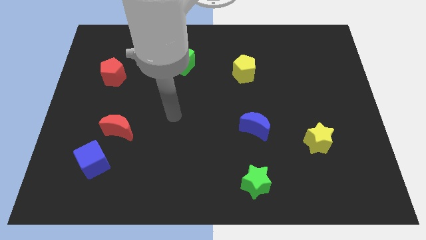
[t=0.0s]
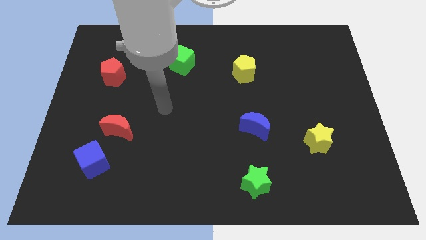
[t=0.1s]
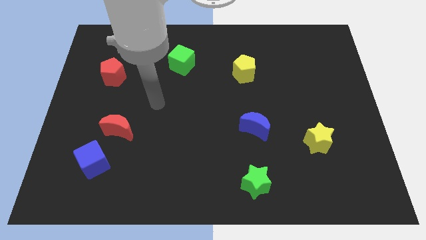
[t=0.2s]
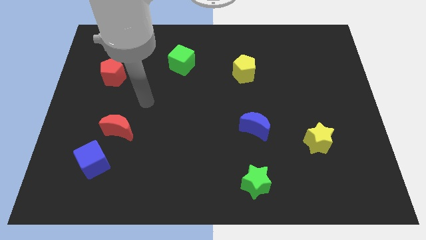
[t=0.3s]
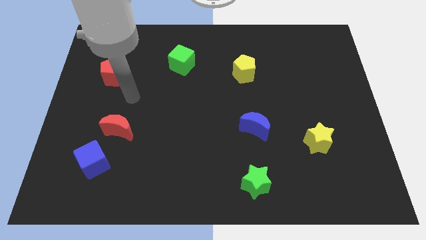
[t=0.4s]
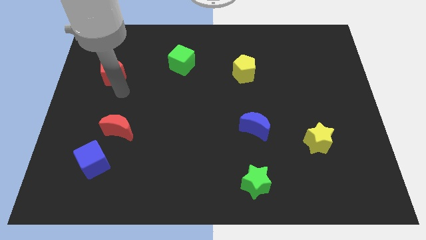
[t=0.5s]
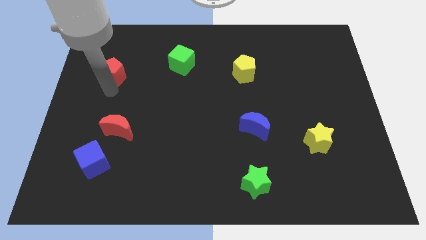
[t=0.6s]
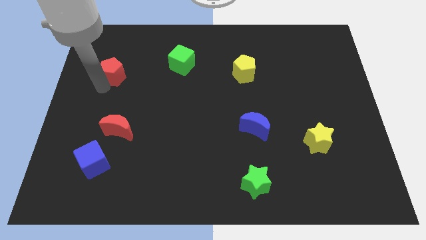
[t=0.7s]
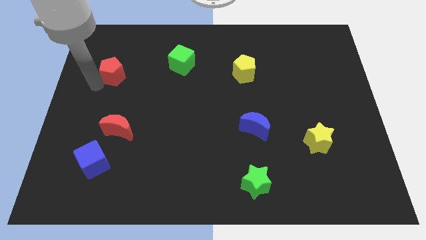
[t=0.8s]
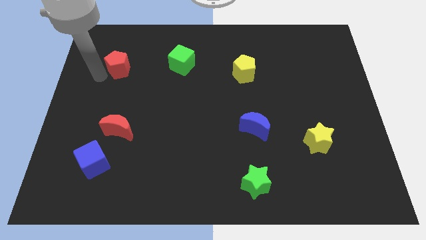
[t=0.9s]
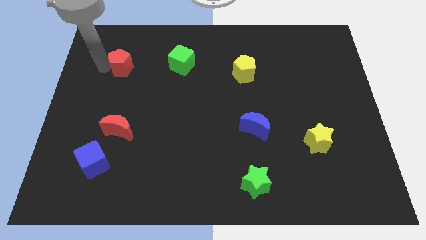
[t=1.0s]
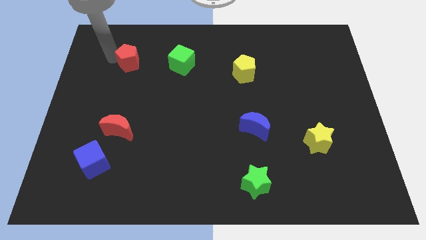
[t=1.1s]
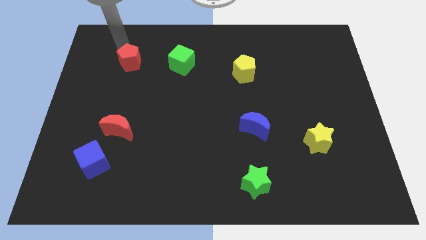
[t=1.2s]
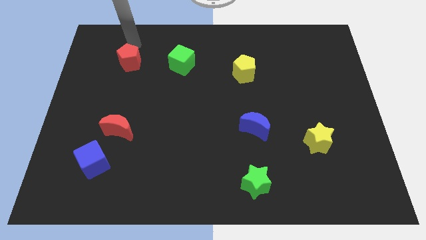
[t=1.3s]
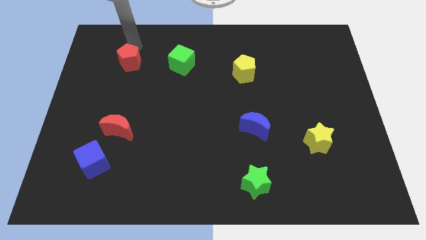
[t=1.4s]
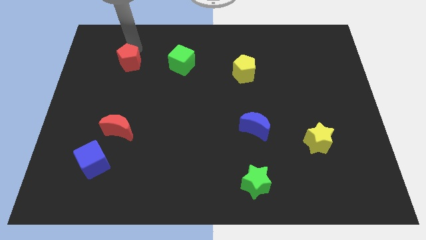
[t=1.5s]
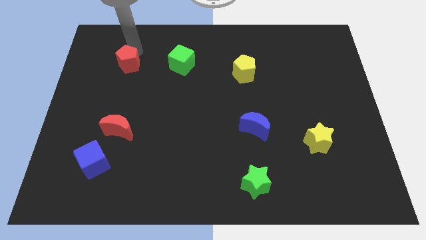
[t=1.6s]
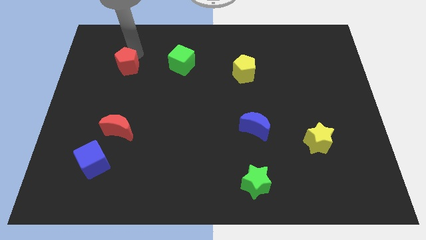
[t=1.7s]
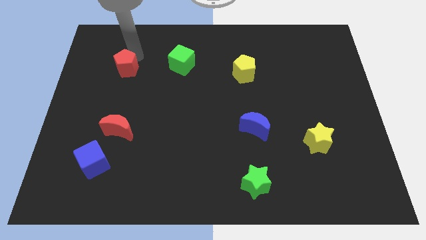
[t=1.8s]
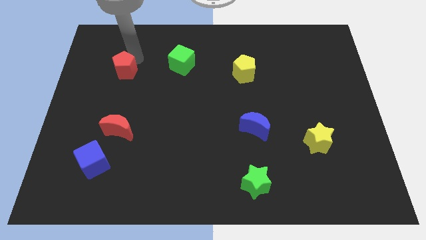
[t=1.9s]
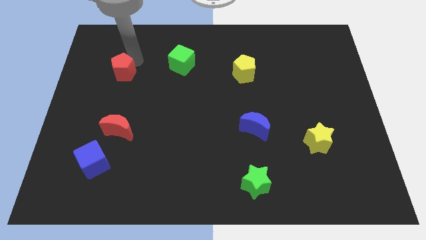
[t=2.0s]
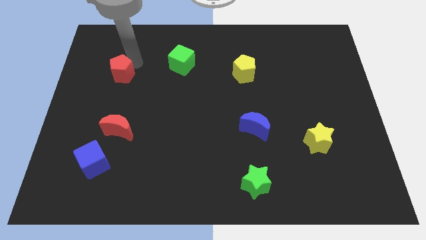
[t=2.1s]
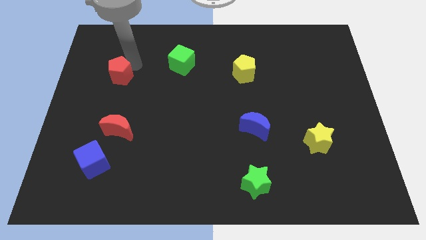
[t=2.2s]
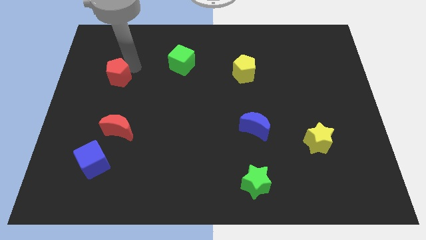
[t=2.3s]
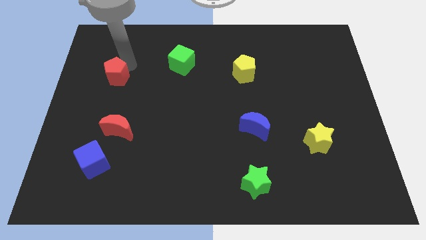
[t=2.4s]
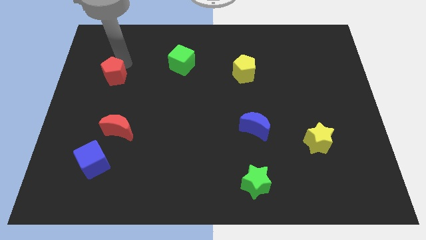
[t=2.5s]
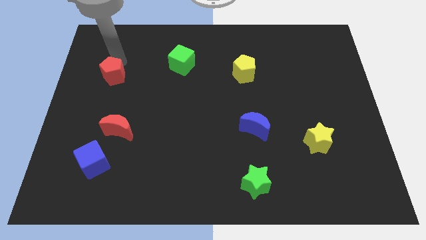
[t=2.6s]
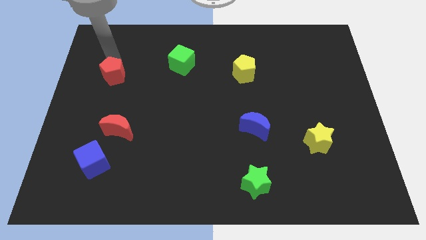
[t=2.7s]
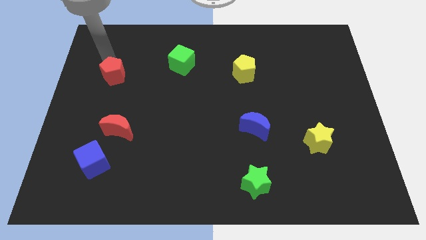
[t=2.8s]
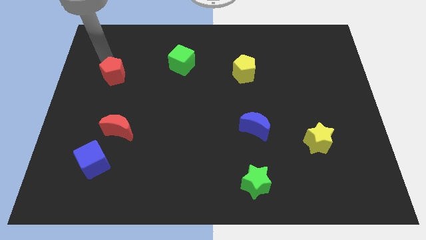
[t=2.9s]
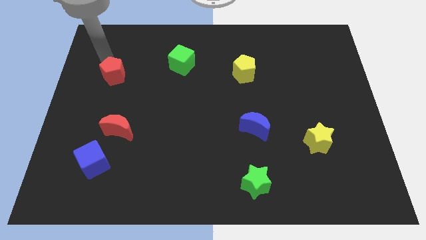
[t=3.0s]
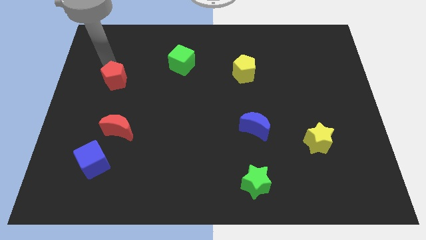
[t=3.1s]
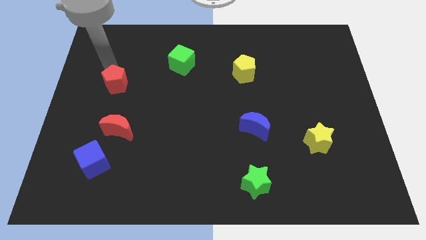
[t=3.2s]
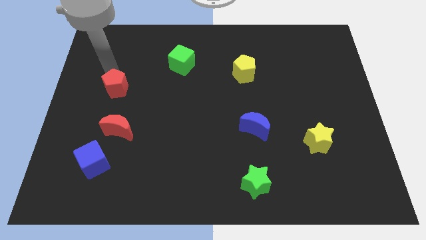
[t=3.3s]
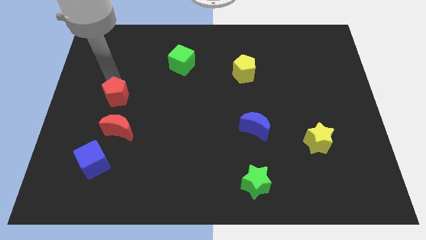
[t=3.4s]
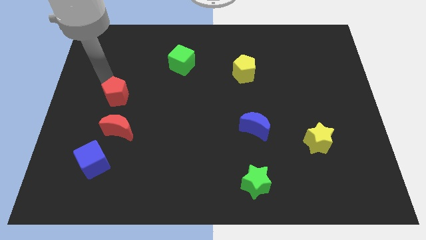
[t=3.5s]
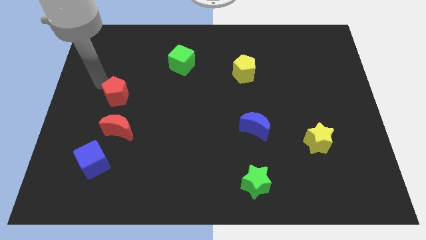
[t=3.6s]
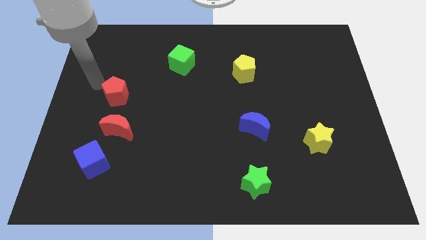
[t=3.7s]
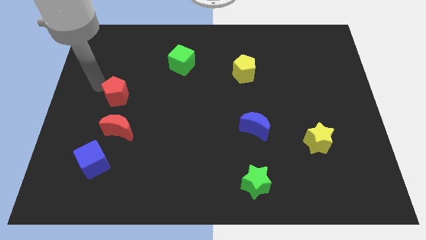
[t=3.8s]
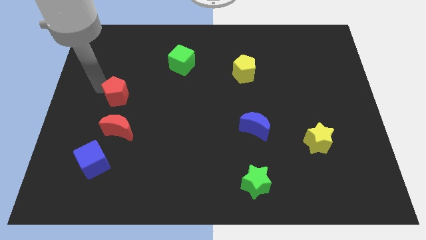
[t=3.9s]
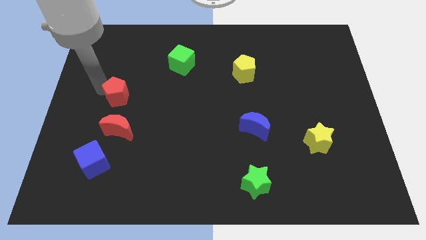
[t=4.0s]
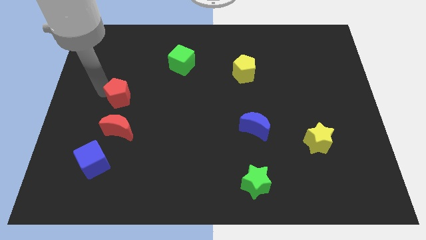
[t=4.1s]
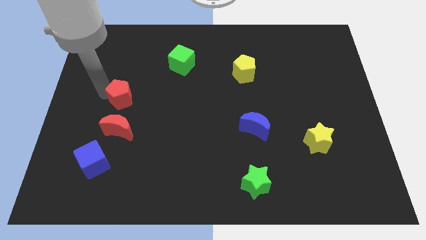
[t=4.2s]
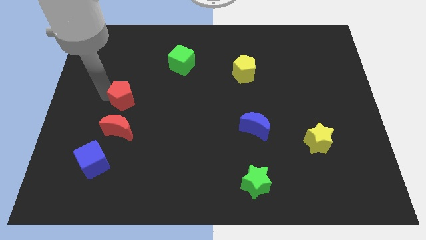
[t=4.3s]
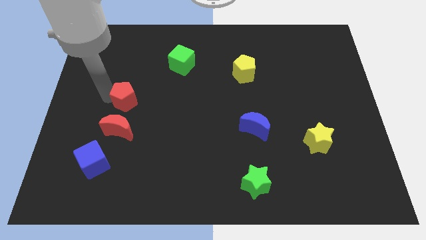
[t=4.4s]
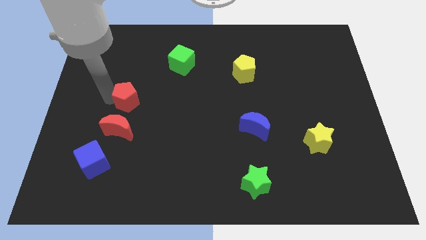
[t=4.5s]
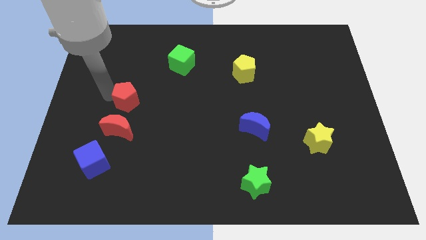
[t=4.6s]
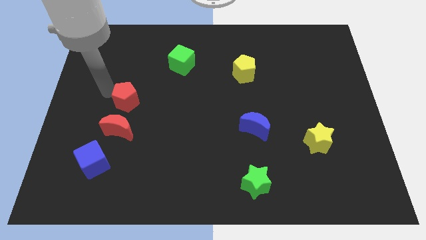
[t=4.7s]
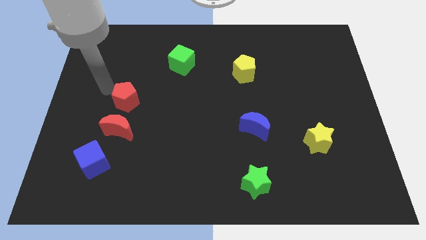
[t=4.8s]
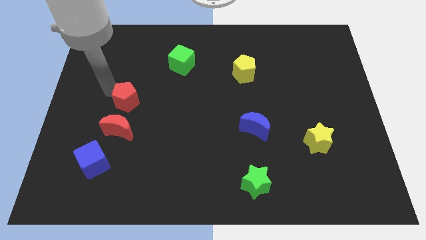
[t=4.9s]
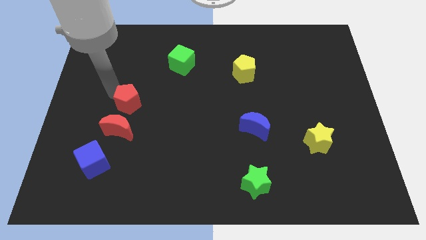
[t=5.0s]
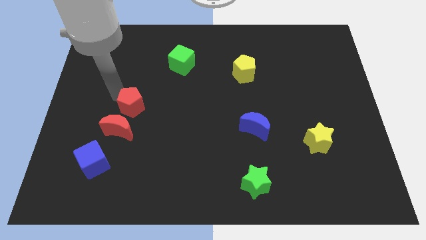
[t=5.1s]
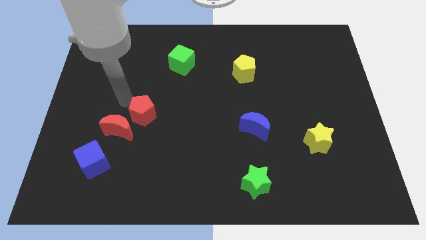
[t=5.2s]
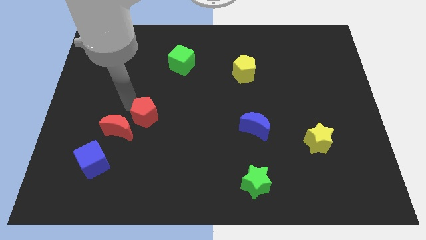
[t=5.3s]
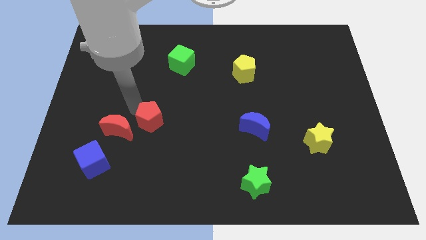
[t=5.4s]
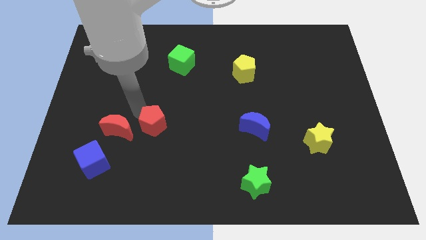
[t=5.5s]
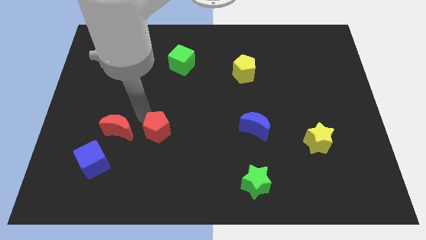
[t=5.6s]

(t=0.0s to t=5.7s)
push the red pentagon downwards and right diagonally

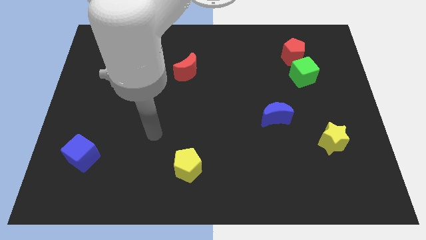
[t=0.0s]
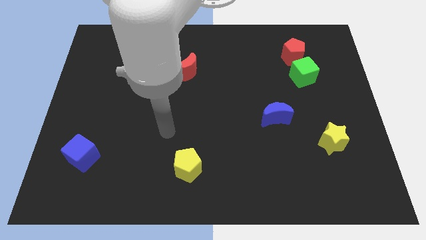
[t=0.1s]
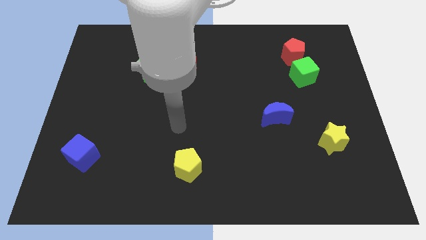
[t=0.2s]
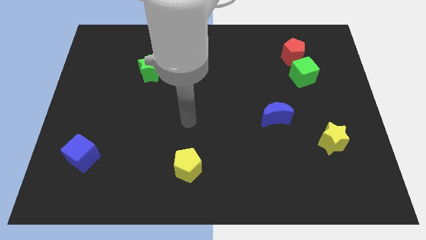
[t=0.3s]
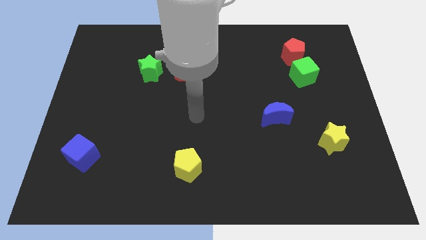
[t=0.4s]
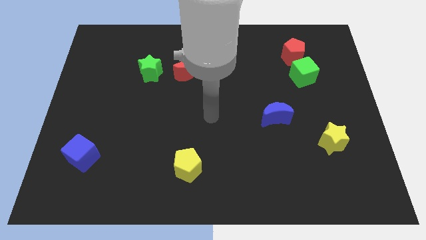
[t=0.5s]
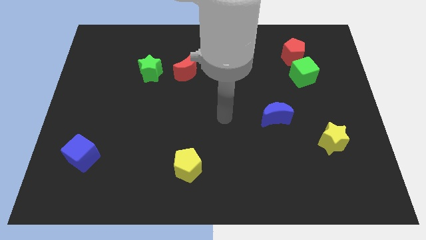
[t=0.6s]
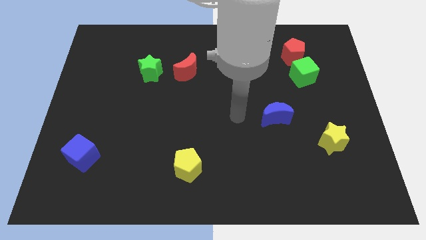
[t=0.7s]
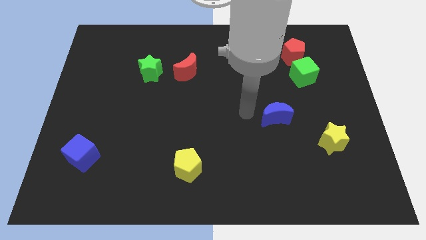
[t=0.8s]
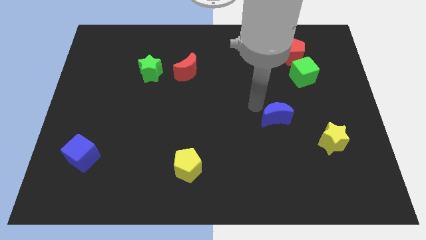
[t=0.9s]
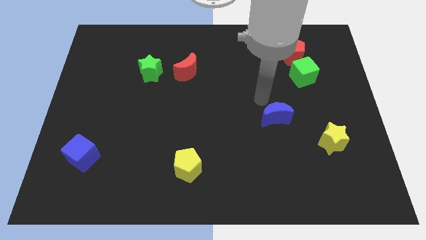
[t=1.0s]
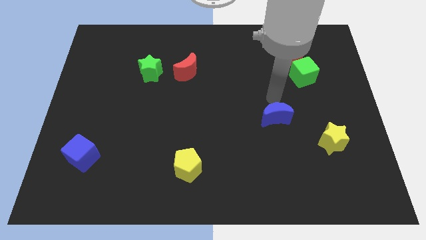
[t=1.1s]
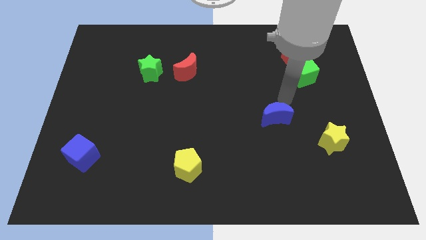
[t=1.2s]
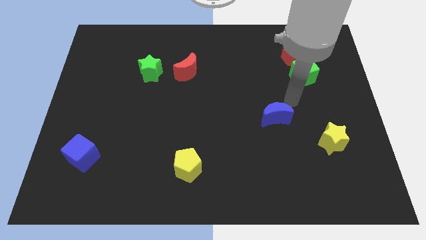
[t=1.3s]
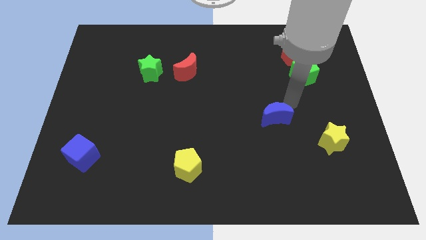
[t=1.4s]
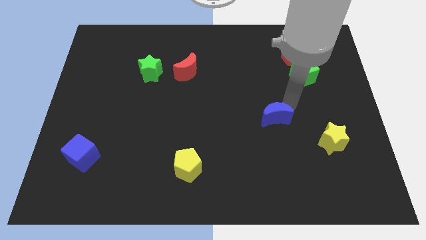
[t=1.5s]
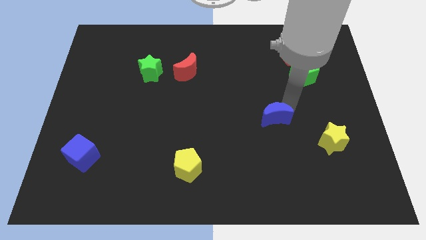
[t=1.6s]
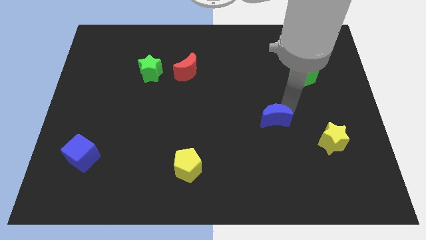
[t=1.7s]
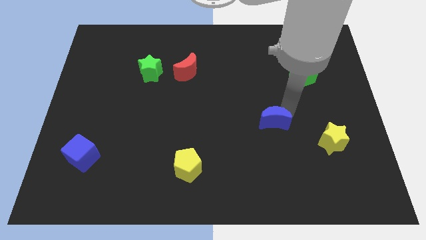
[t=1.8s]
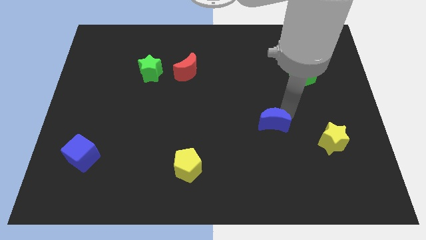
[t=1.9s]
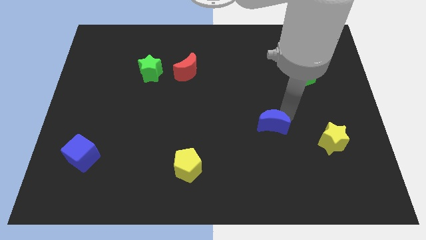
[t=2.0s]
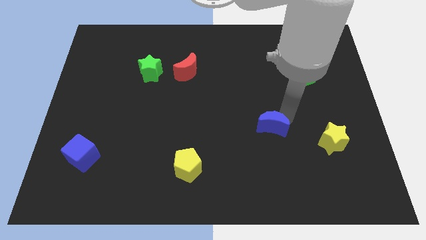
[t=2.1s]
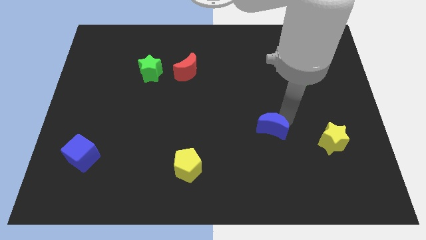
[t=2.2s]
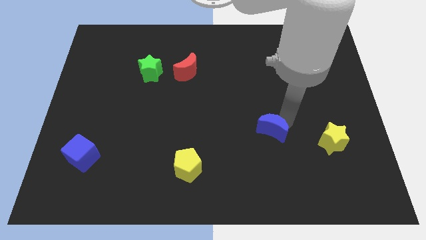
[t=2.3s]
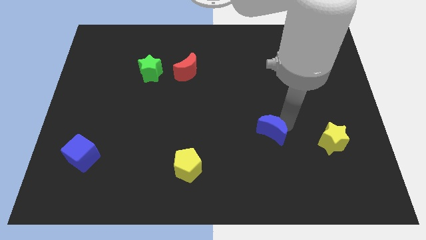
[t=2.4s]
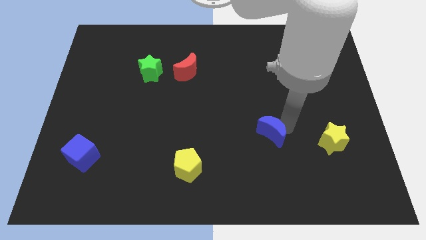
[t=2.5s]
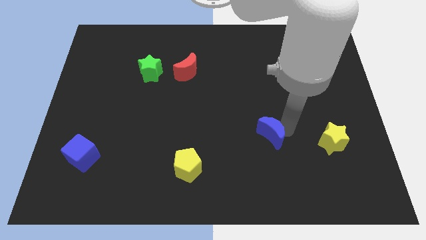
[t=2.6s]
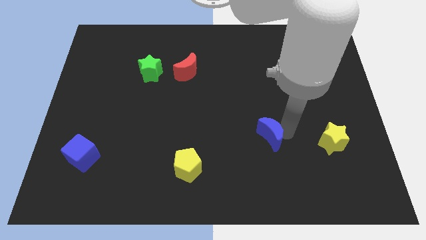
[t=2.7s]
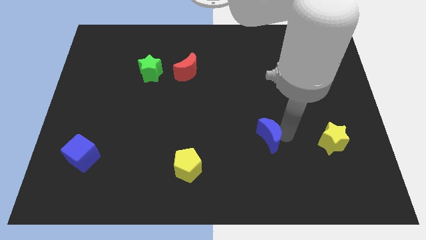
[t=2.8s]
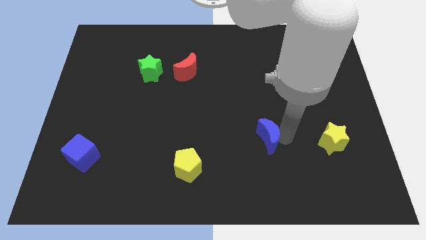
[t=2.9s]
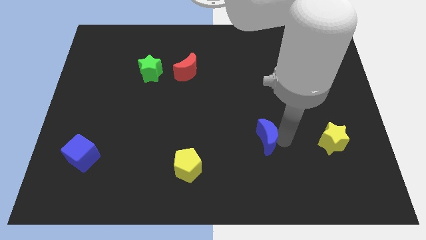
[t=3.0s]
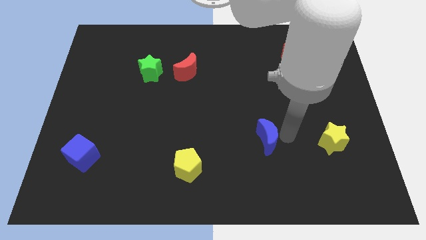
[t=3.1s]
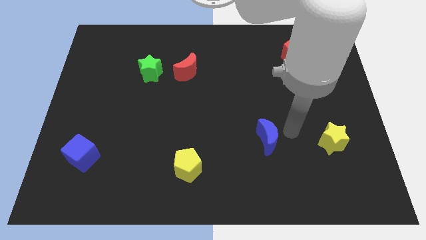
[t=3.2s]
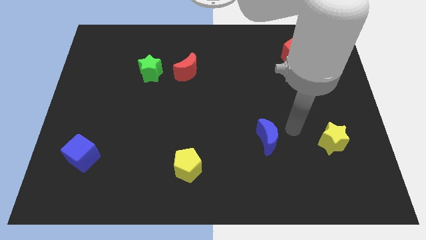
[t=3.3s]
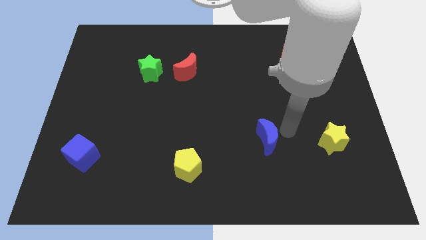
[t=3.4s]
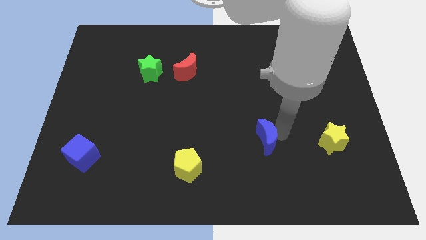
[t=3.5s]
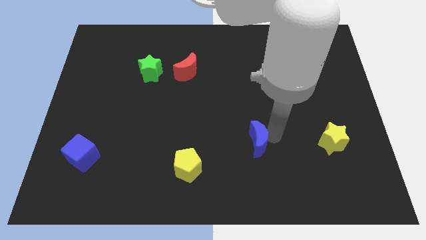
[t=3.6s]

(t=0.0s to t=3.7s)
slightly push the blue moon diagonally downwards and left
